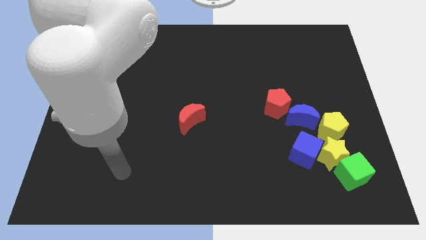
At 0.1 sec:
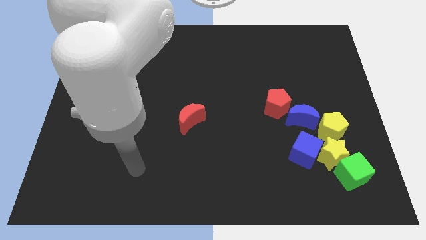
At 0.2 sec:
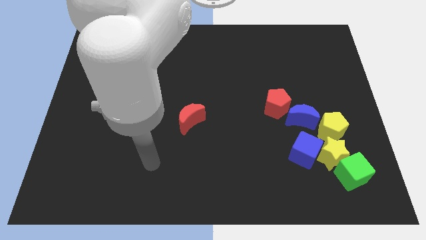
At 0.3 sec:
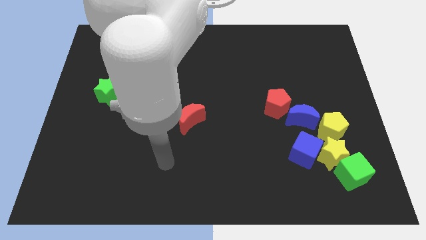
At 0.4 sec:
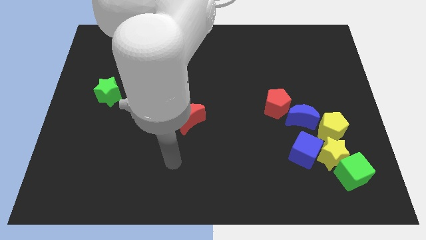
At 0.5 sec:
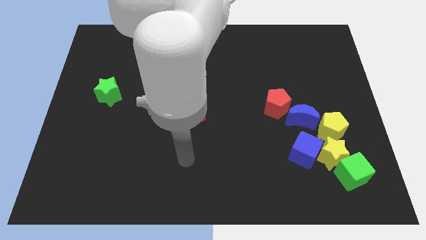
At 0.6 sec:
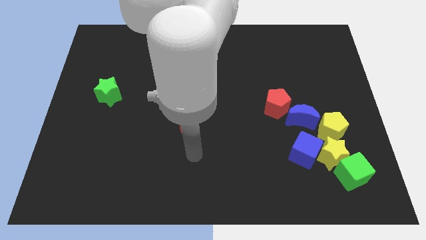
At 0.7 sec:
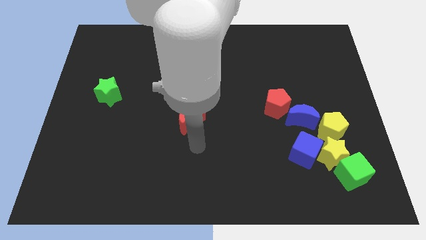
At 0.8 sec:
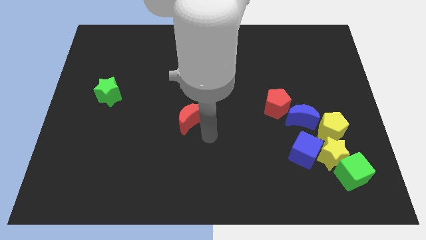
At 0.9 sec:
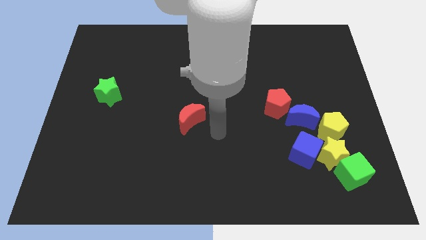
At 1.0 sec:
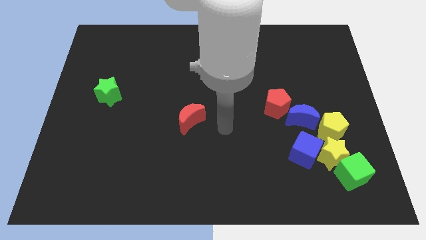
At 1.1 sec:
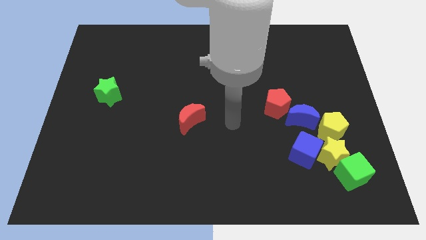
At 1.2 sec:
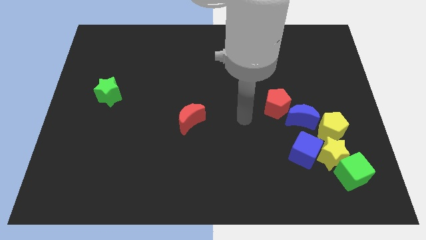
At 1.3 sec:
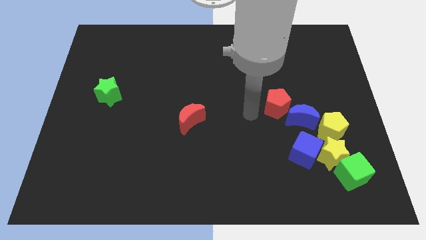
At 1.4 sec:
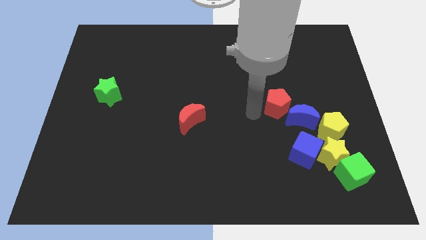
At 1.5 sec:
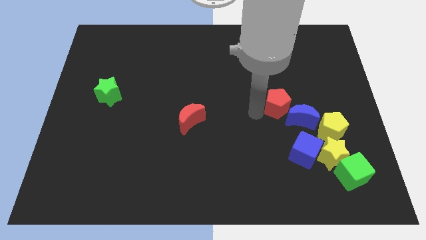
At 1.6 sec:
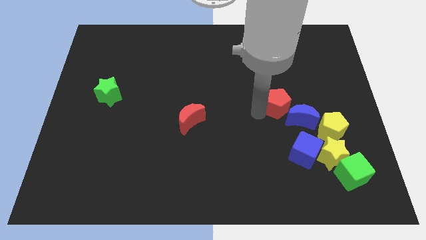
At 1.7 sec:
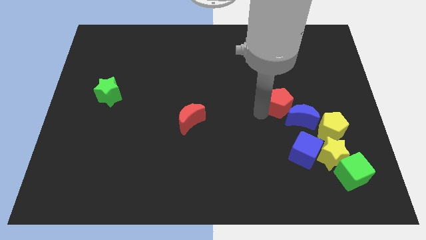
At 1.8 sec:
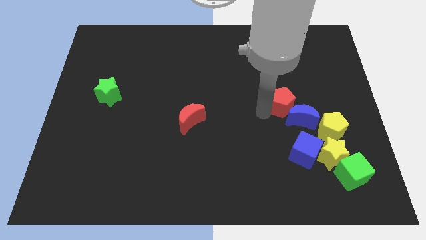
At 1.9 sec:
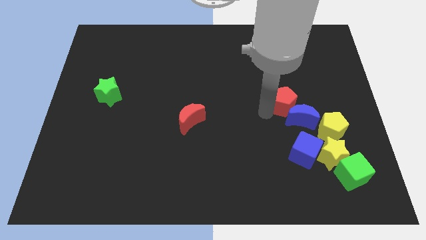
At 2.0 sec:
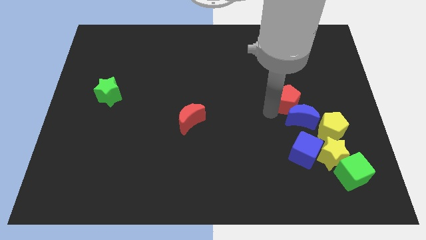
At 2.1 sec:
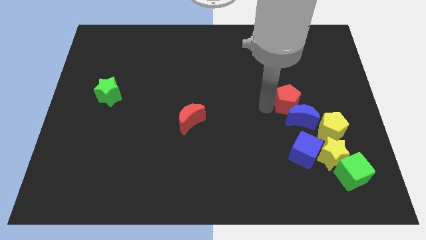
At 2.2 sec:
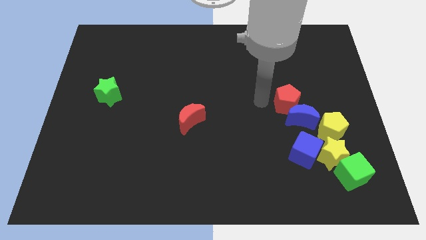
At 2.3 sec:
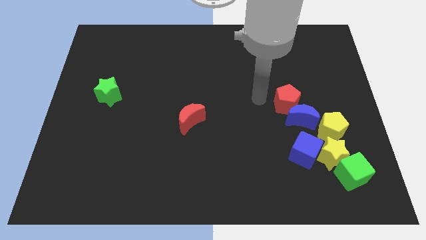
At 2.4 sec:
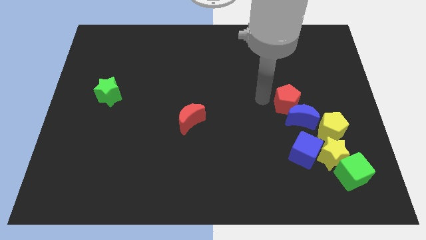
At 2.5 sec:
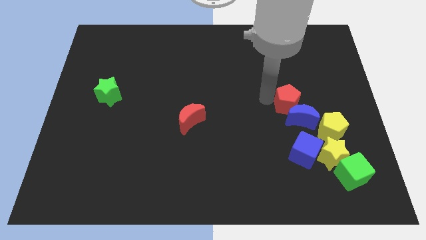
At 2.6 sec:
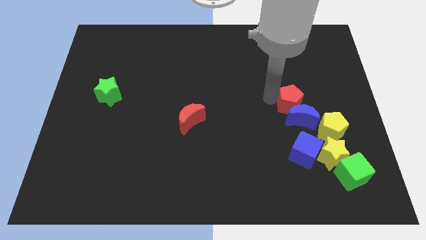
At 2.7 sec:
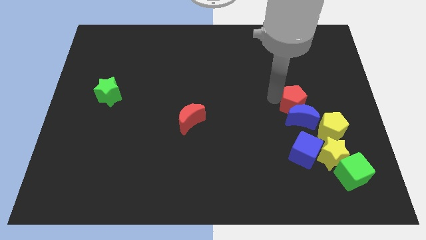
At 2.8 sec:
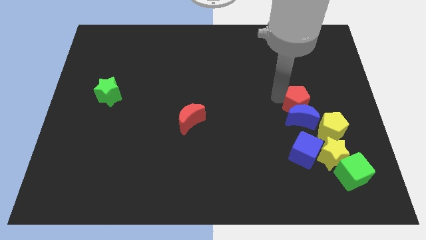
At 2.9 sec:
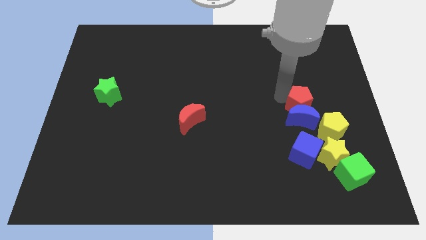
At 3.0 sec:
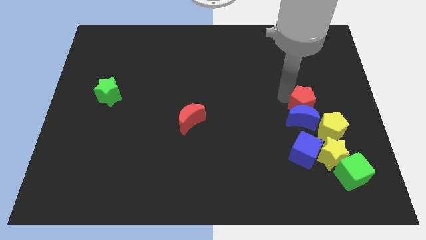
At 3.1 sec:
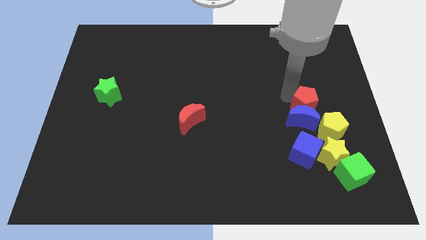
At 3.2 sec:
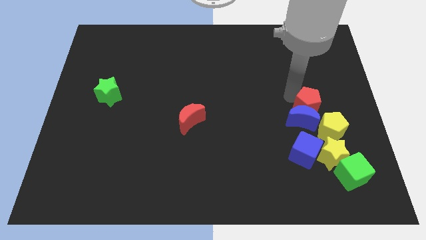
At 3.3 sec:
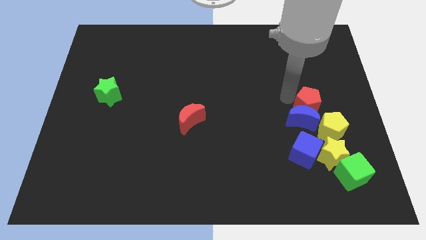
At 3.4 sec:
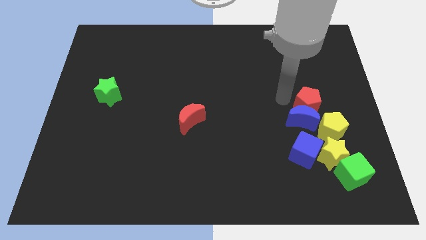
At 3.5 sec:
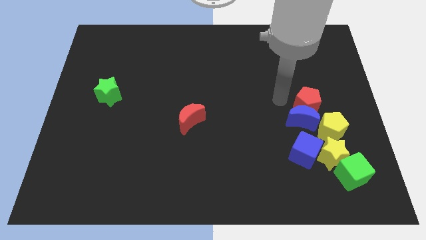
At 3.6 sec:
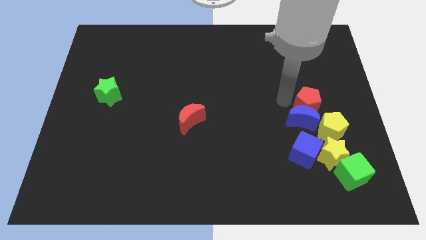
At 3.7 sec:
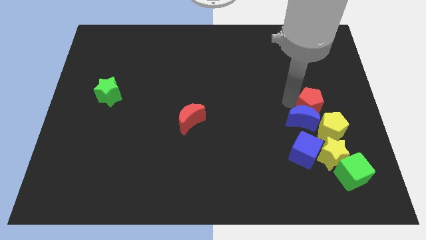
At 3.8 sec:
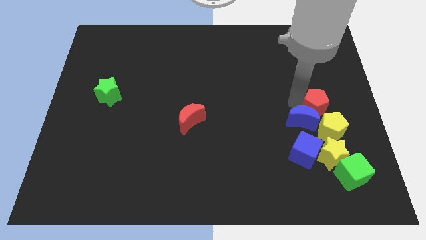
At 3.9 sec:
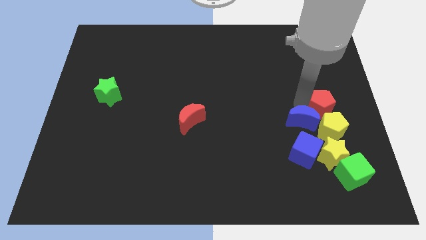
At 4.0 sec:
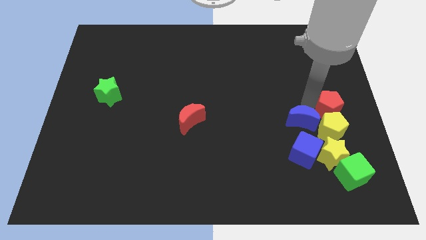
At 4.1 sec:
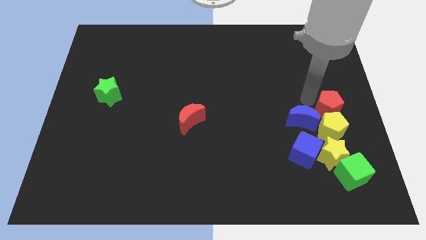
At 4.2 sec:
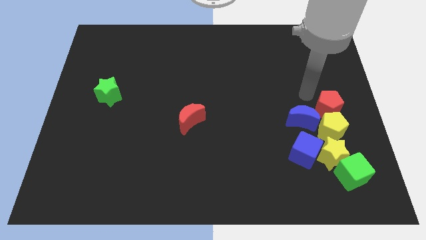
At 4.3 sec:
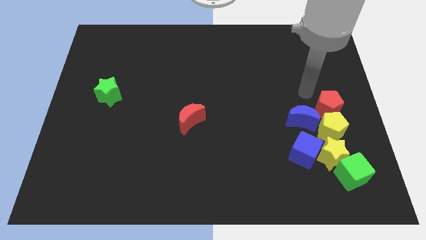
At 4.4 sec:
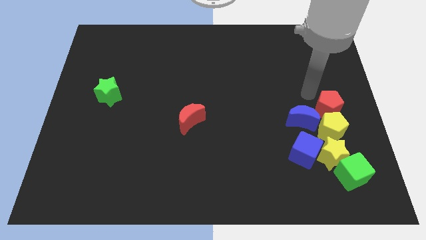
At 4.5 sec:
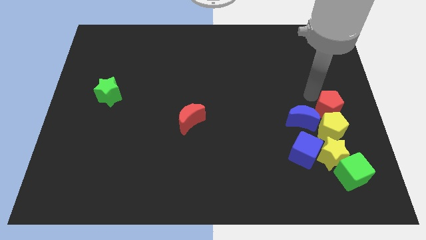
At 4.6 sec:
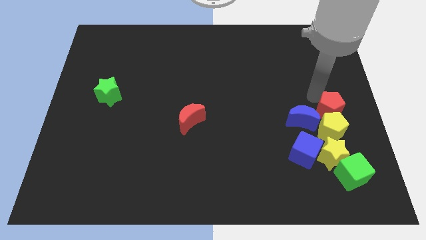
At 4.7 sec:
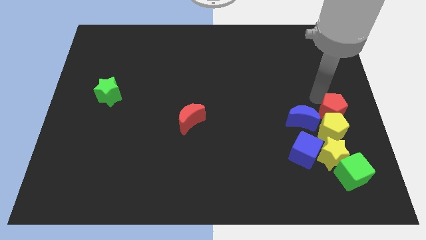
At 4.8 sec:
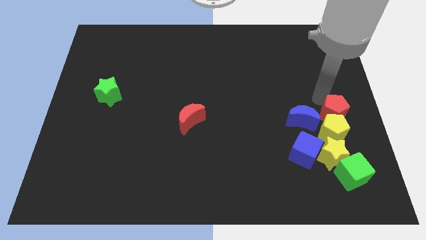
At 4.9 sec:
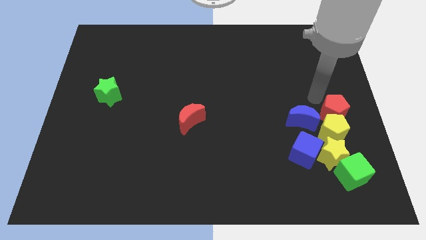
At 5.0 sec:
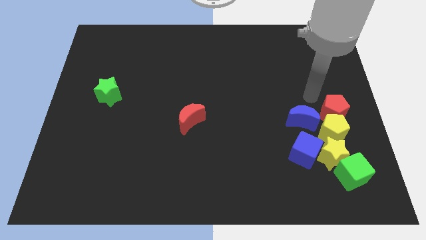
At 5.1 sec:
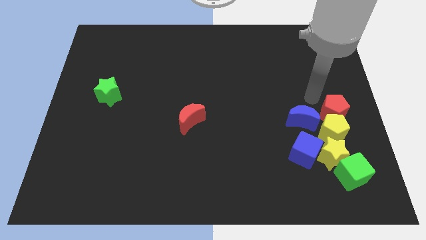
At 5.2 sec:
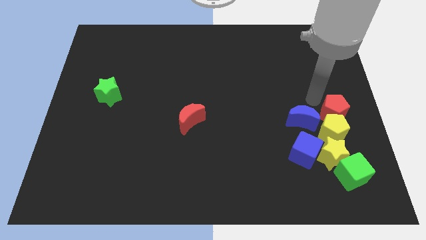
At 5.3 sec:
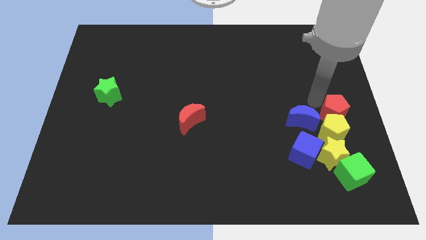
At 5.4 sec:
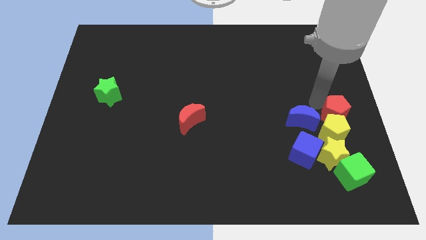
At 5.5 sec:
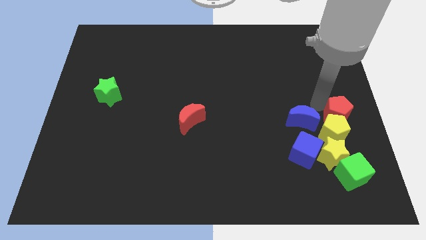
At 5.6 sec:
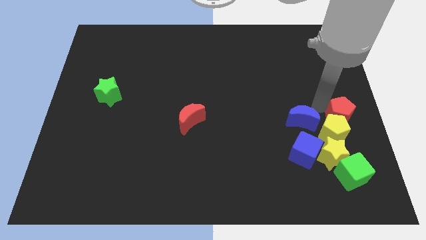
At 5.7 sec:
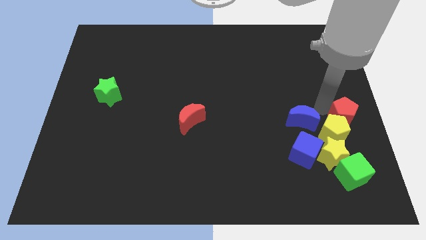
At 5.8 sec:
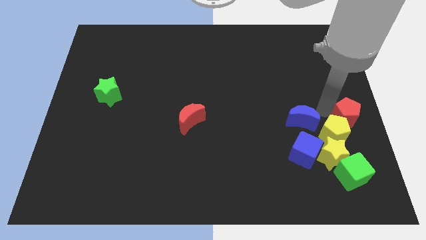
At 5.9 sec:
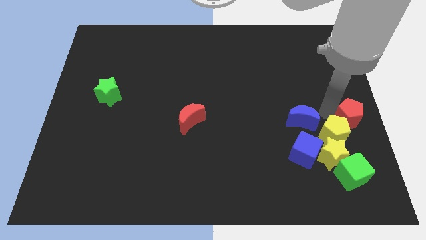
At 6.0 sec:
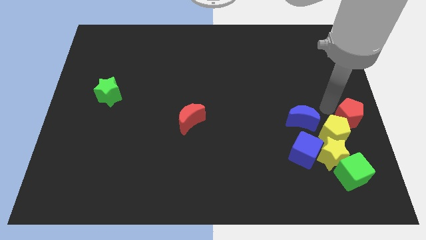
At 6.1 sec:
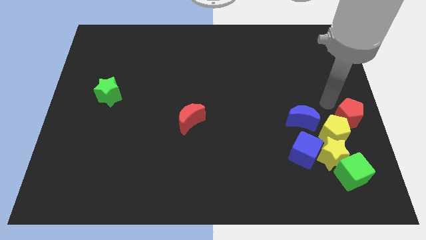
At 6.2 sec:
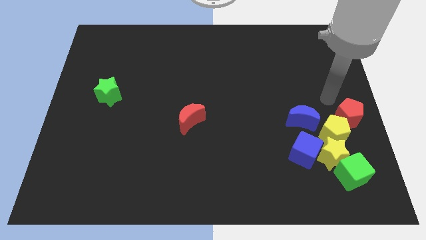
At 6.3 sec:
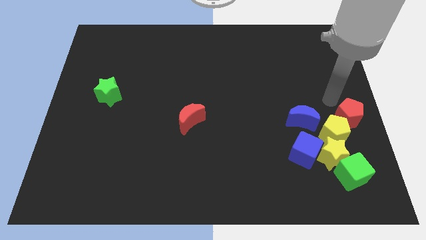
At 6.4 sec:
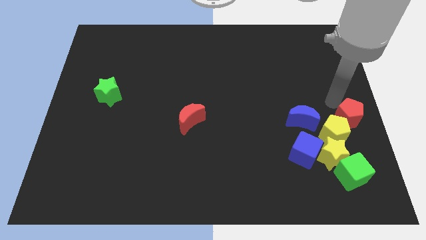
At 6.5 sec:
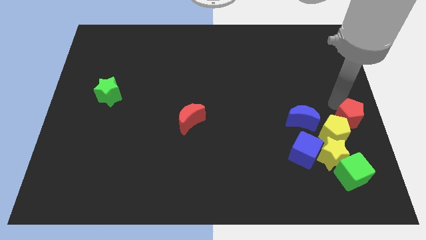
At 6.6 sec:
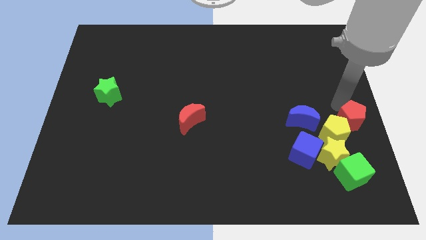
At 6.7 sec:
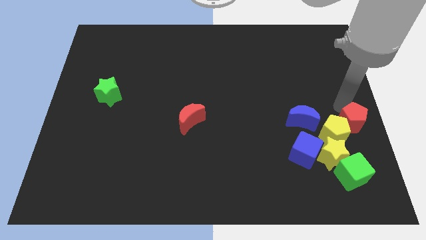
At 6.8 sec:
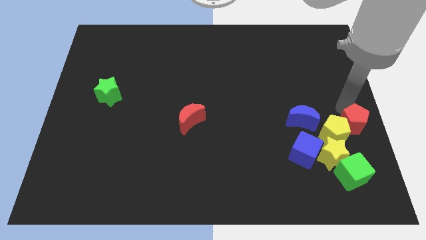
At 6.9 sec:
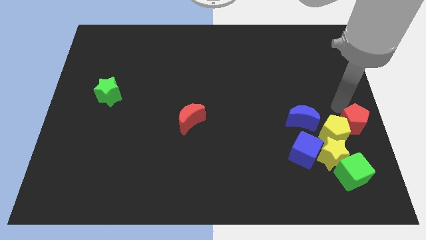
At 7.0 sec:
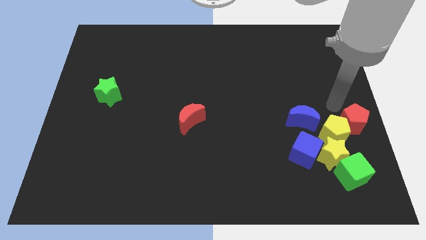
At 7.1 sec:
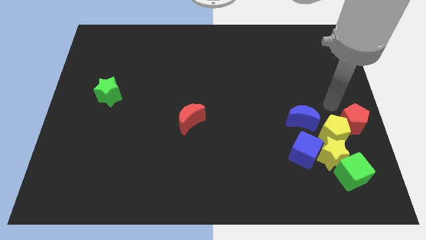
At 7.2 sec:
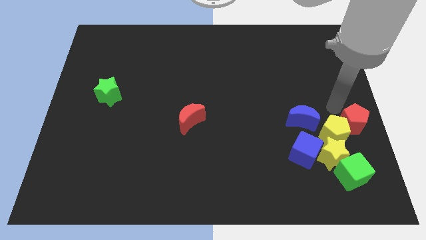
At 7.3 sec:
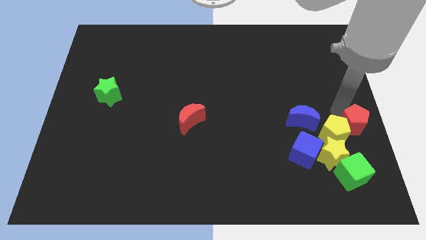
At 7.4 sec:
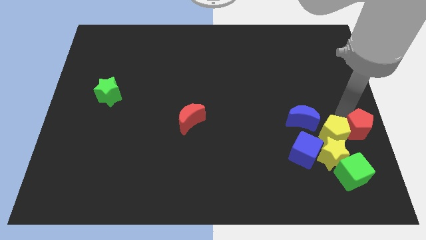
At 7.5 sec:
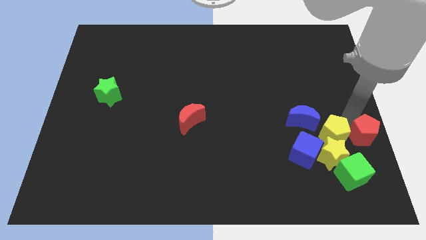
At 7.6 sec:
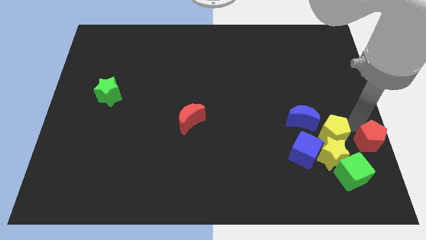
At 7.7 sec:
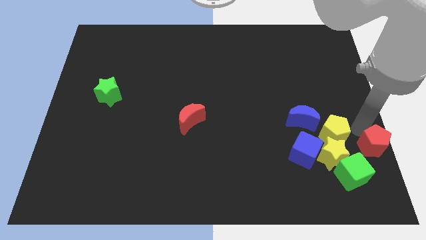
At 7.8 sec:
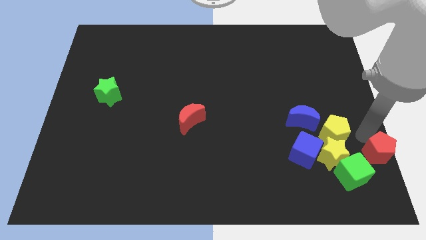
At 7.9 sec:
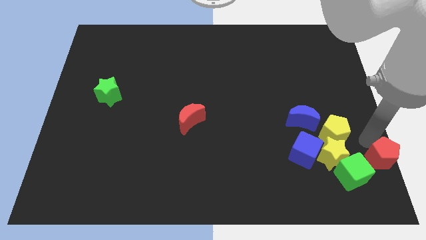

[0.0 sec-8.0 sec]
put the red pentagon to the bottom right corner
